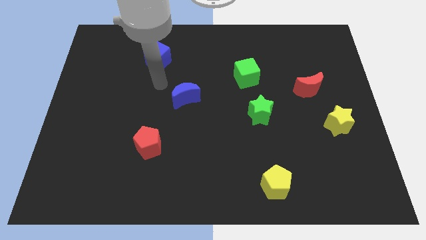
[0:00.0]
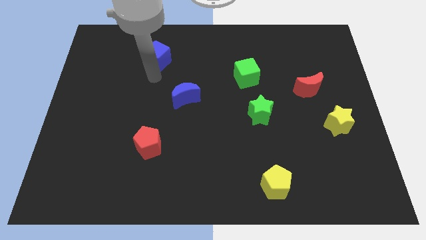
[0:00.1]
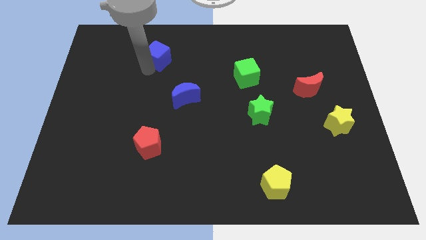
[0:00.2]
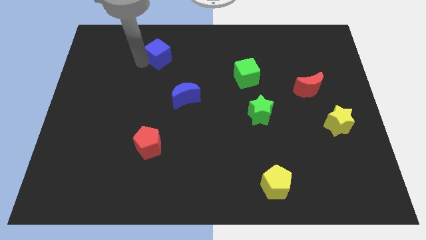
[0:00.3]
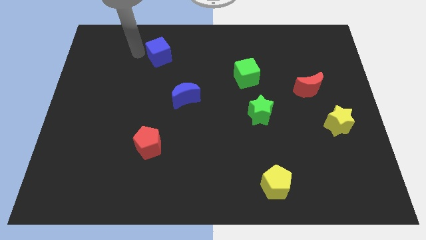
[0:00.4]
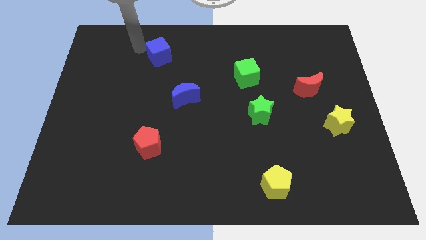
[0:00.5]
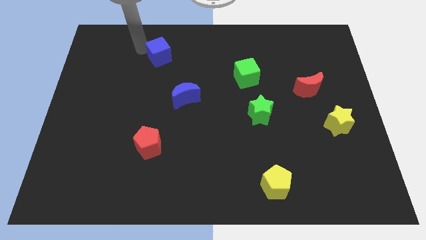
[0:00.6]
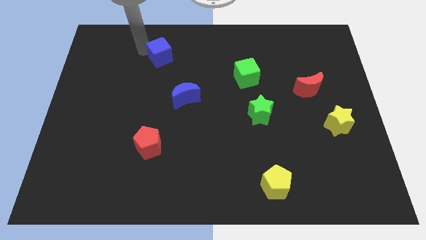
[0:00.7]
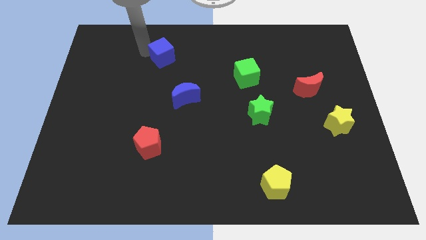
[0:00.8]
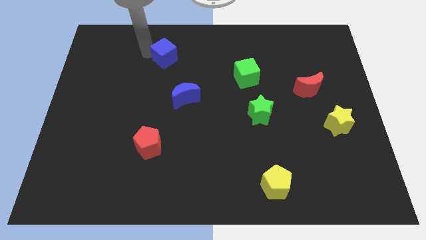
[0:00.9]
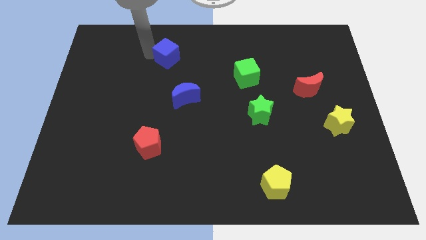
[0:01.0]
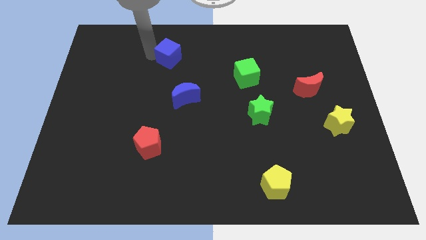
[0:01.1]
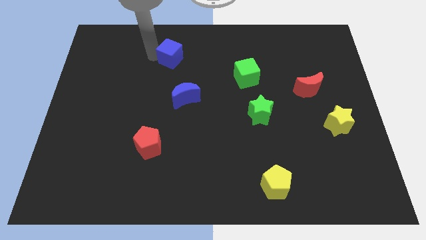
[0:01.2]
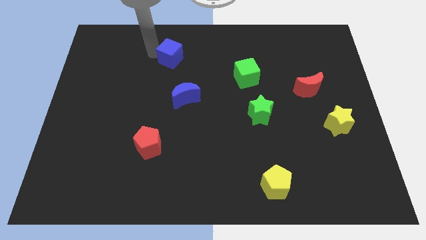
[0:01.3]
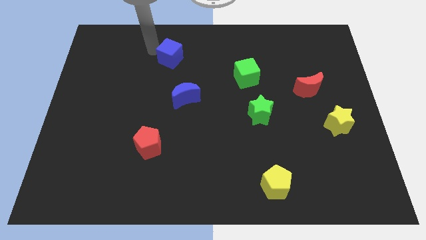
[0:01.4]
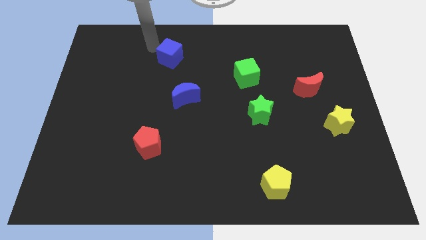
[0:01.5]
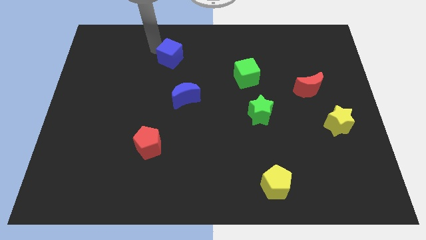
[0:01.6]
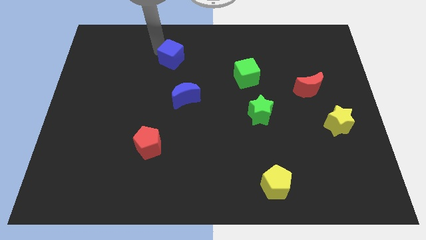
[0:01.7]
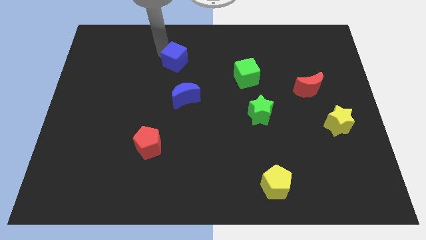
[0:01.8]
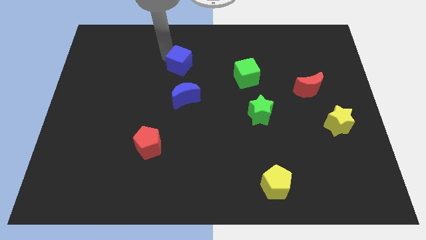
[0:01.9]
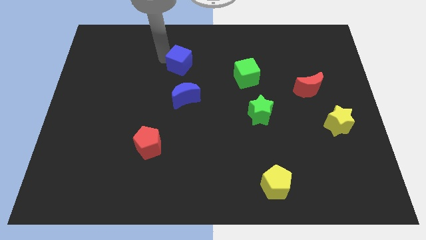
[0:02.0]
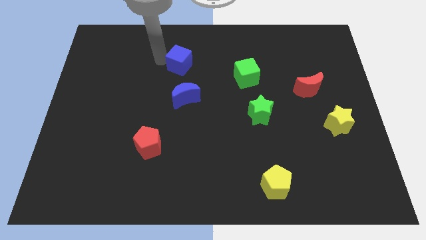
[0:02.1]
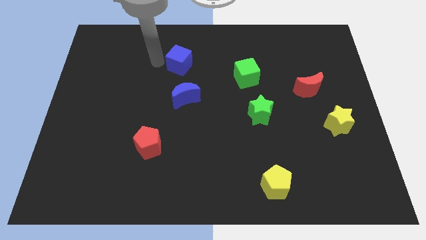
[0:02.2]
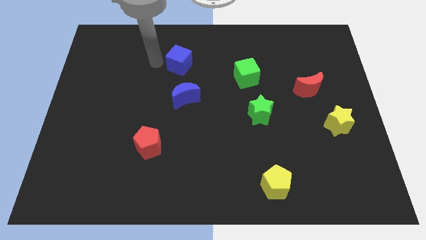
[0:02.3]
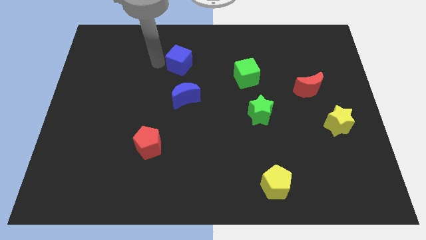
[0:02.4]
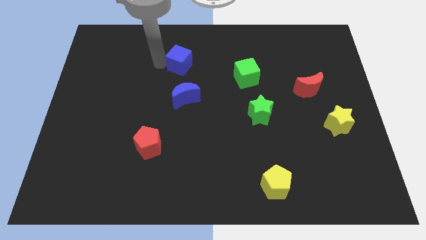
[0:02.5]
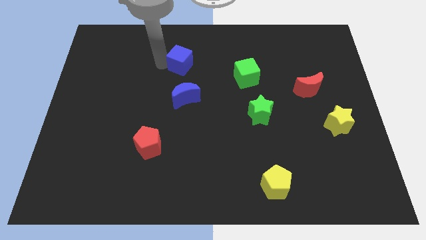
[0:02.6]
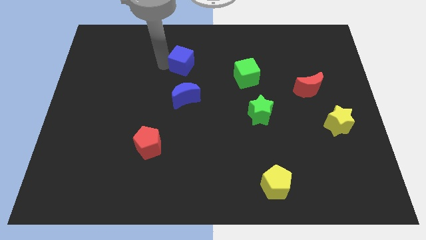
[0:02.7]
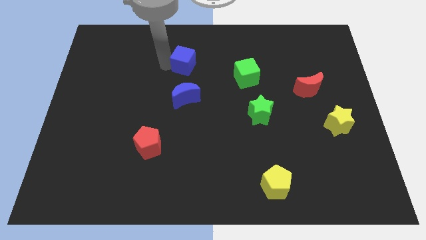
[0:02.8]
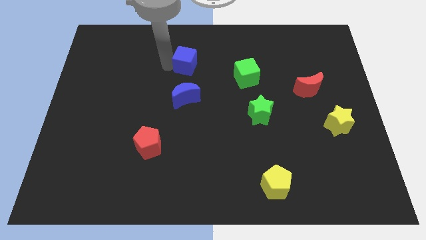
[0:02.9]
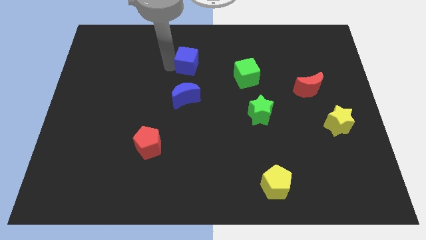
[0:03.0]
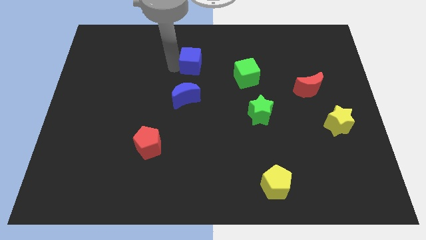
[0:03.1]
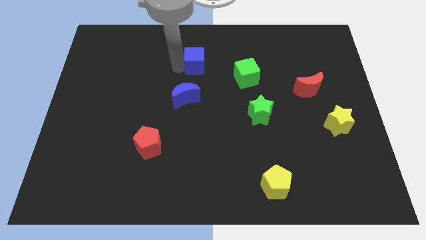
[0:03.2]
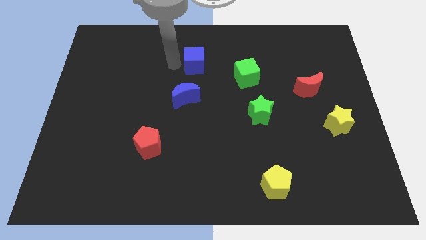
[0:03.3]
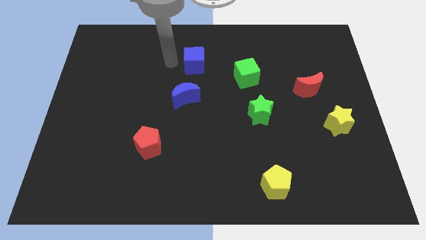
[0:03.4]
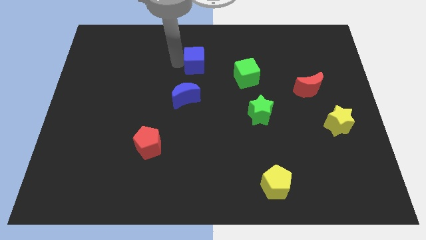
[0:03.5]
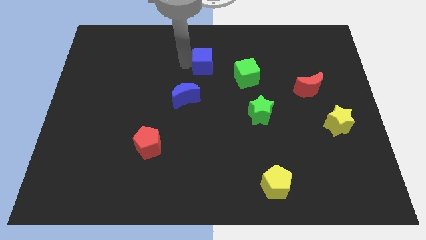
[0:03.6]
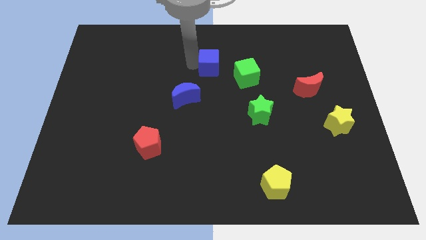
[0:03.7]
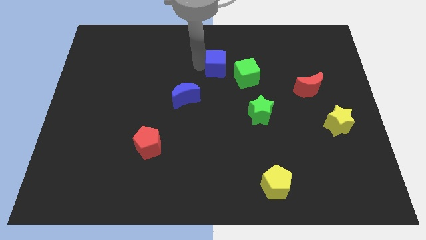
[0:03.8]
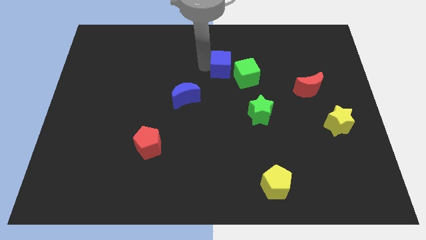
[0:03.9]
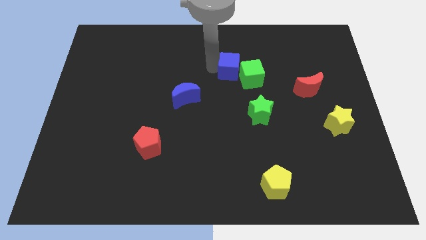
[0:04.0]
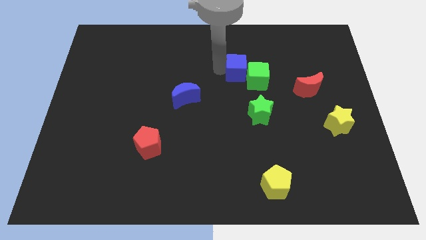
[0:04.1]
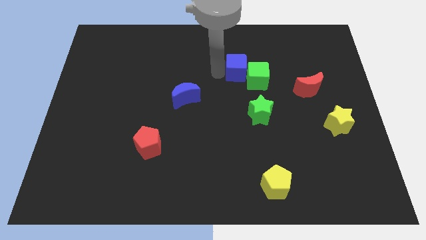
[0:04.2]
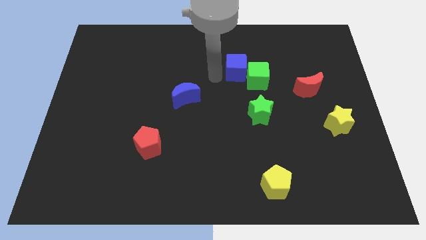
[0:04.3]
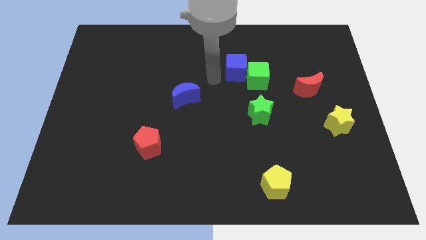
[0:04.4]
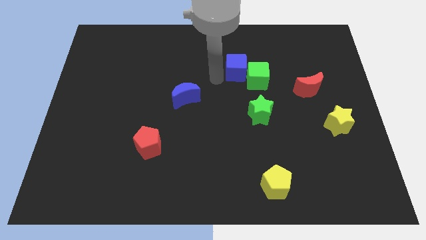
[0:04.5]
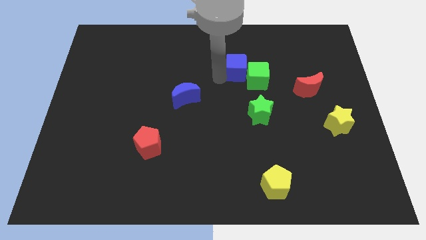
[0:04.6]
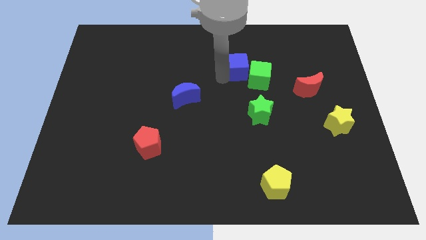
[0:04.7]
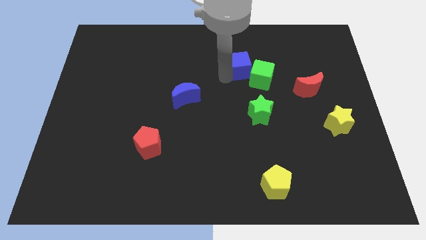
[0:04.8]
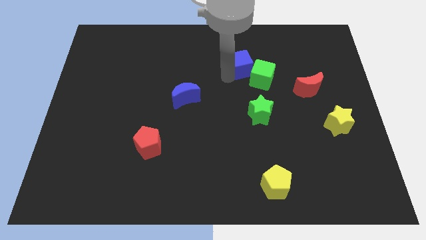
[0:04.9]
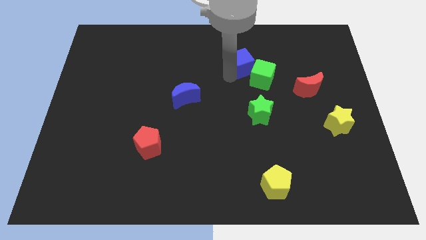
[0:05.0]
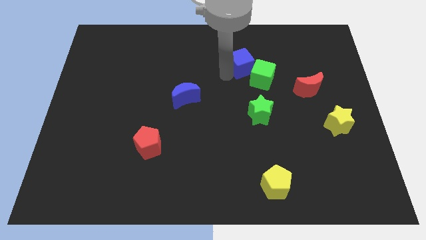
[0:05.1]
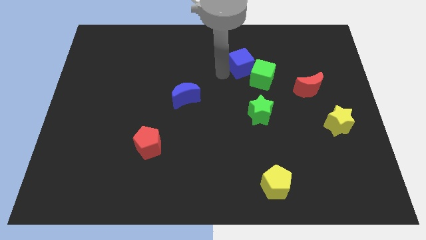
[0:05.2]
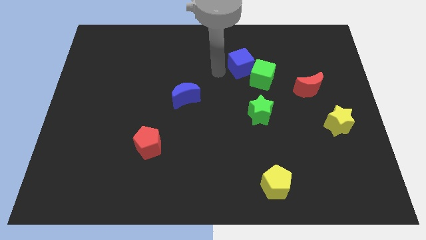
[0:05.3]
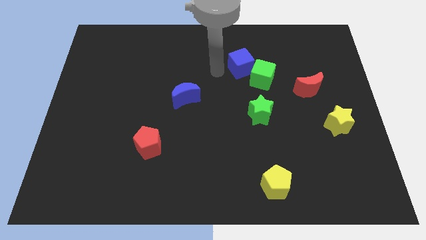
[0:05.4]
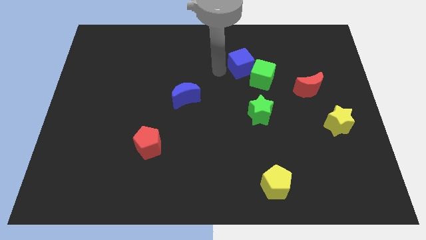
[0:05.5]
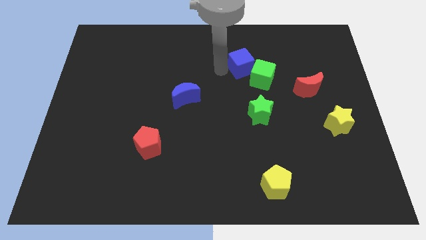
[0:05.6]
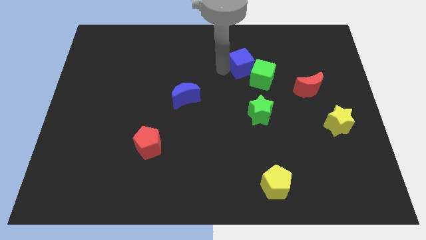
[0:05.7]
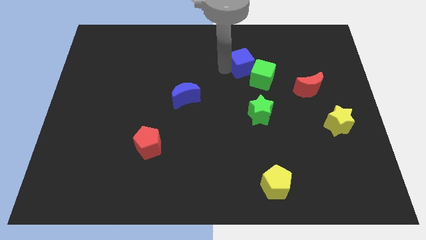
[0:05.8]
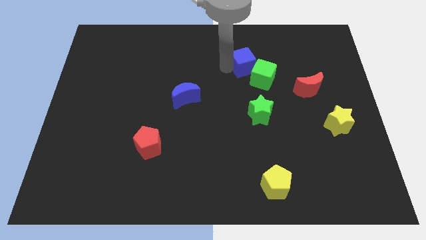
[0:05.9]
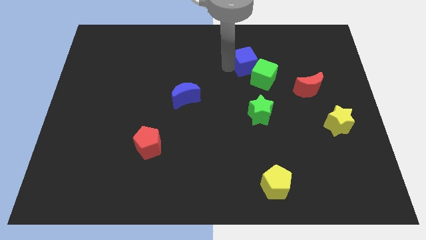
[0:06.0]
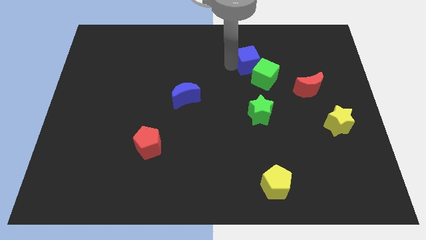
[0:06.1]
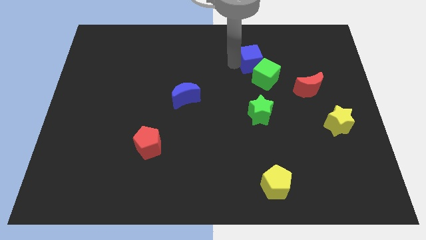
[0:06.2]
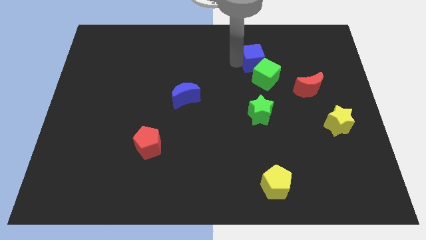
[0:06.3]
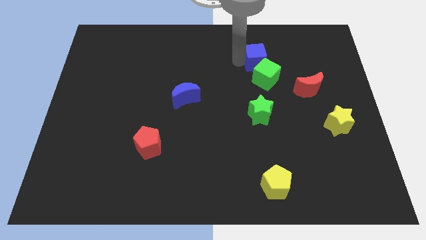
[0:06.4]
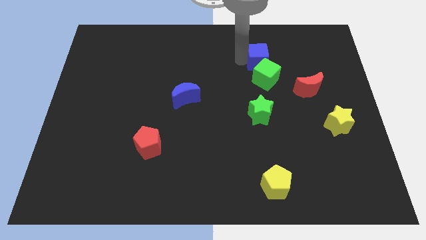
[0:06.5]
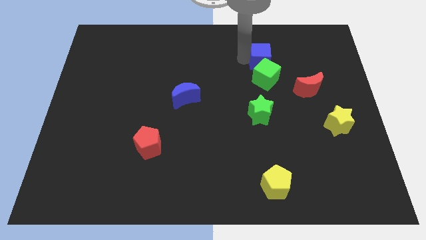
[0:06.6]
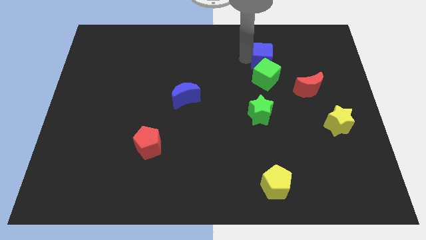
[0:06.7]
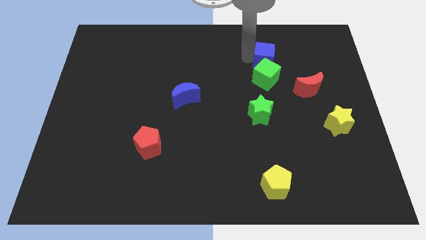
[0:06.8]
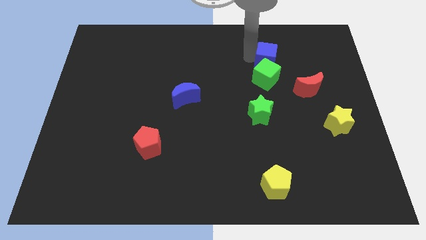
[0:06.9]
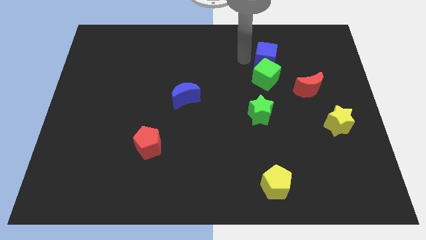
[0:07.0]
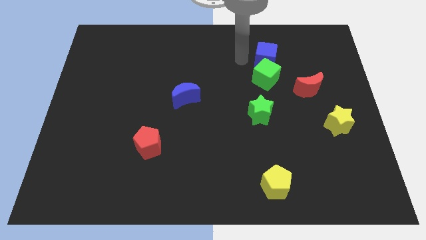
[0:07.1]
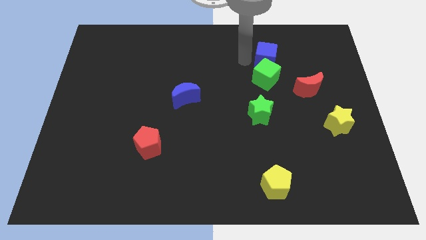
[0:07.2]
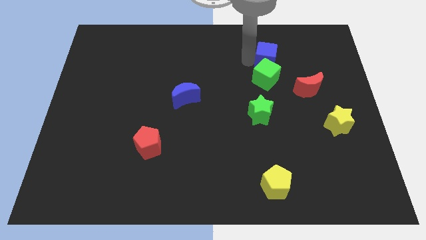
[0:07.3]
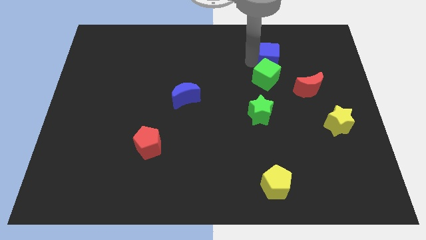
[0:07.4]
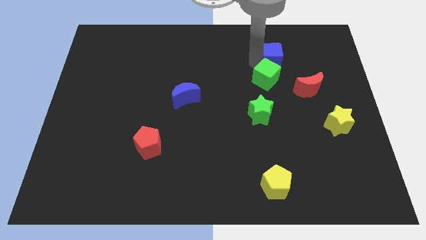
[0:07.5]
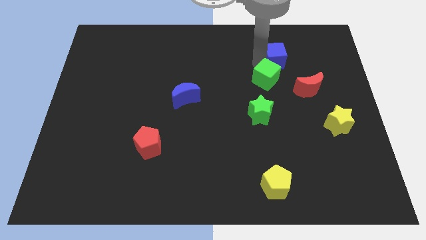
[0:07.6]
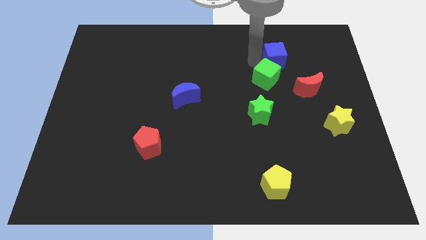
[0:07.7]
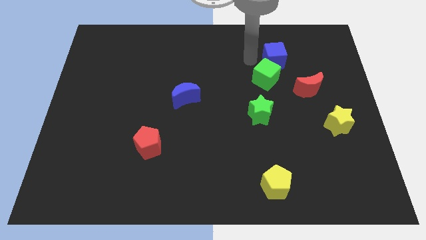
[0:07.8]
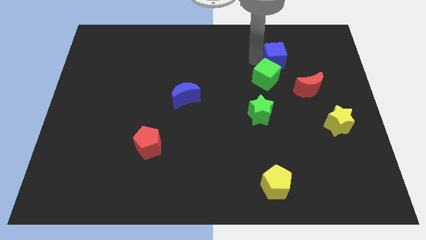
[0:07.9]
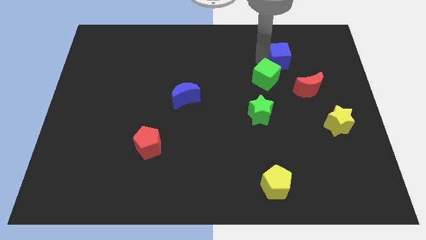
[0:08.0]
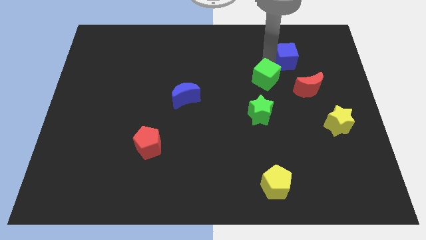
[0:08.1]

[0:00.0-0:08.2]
slide the blue cube above the red moon
